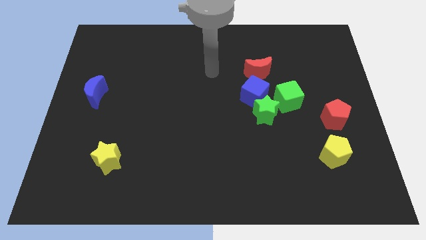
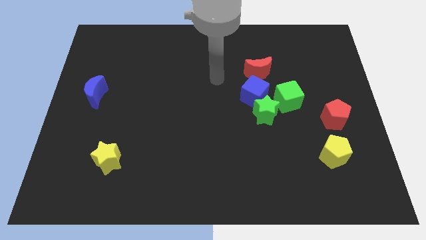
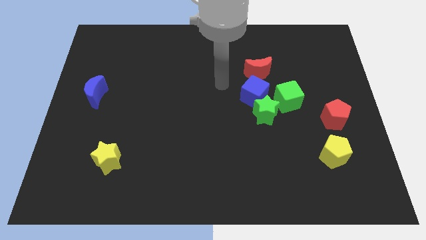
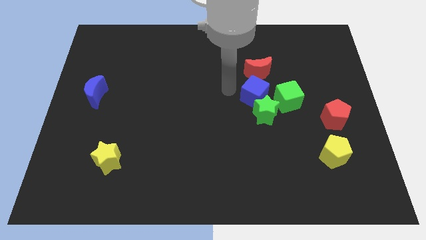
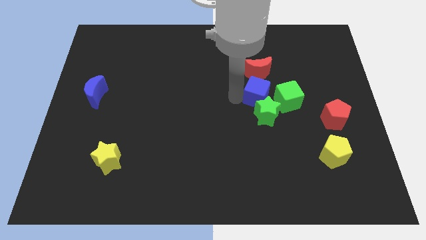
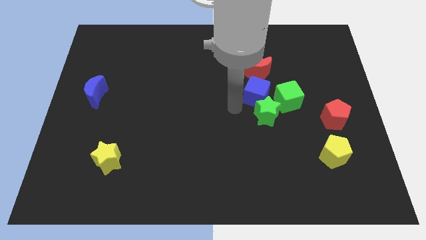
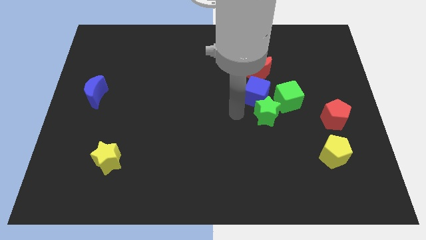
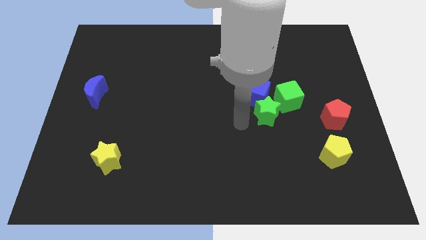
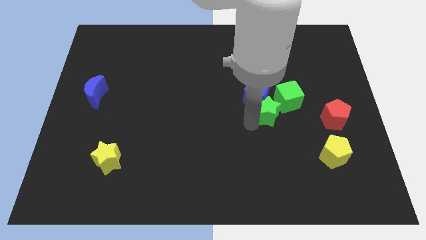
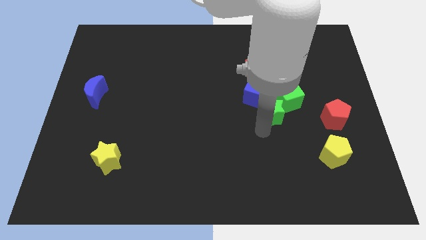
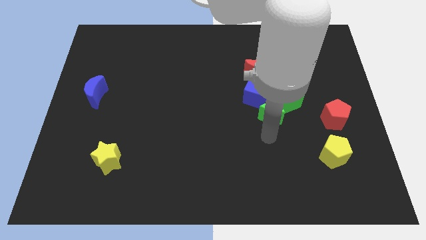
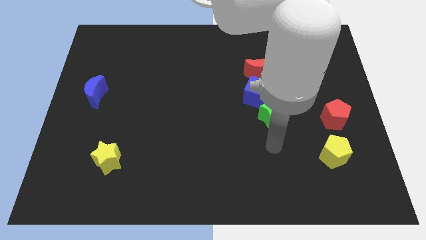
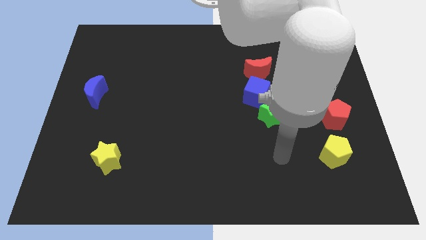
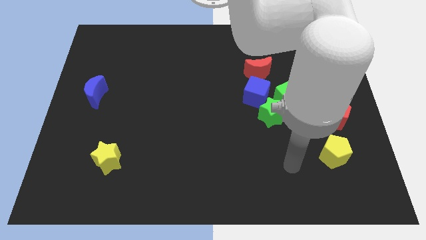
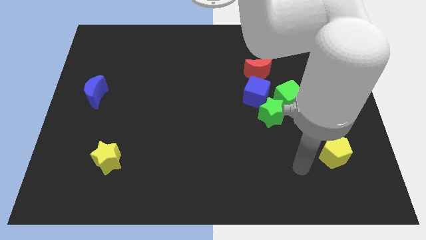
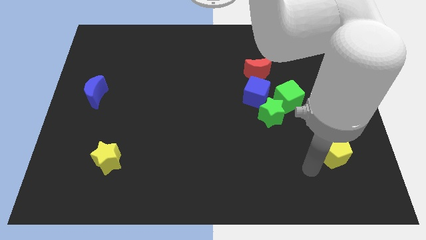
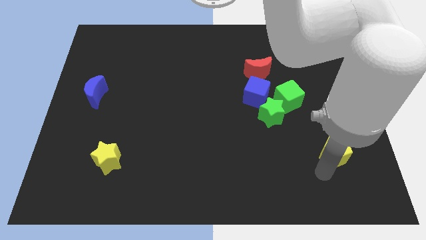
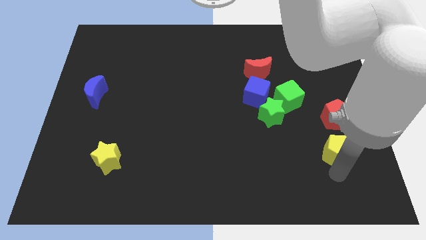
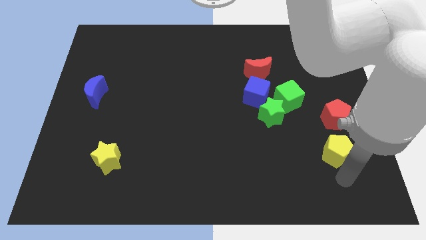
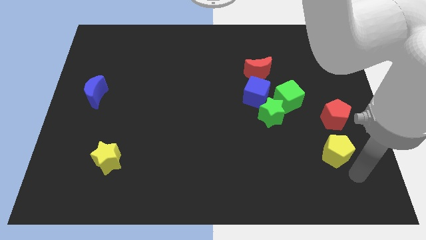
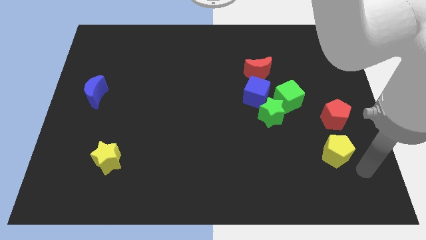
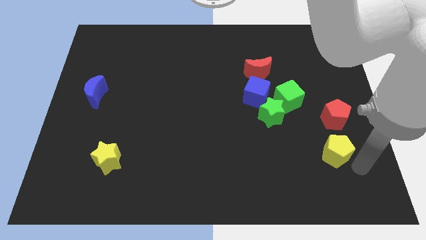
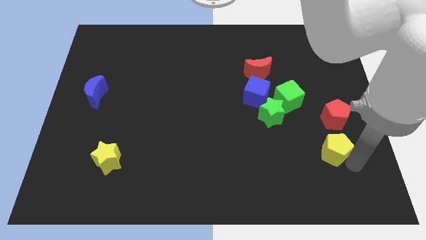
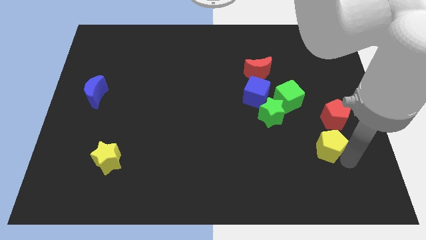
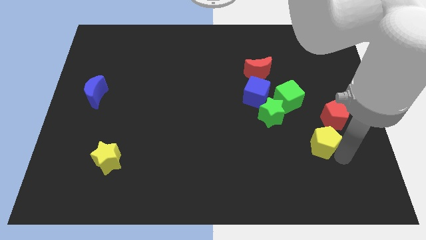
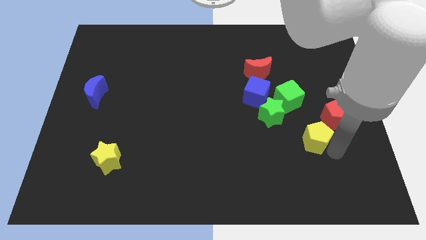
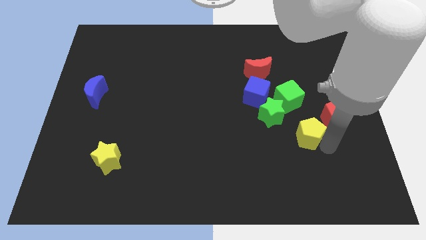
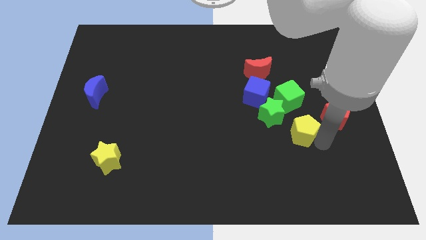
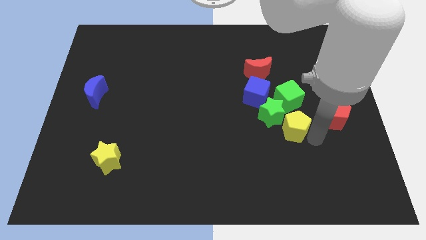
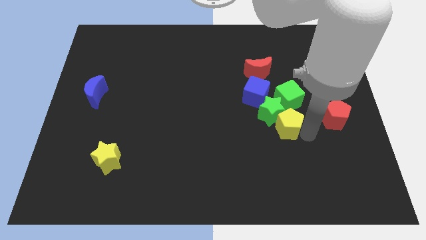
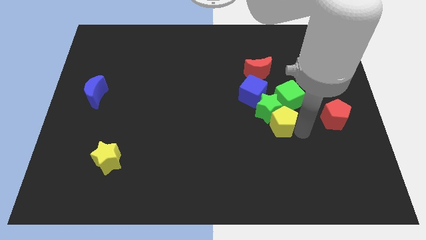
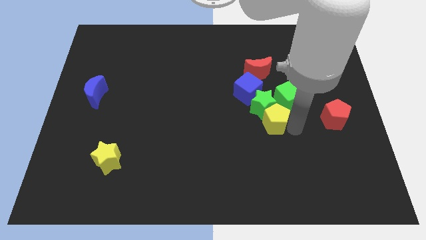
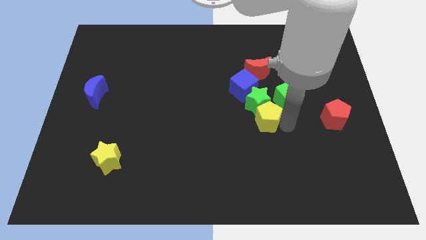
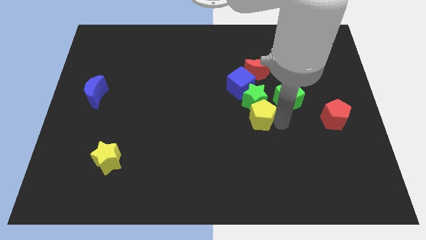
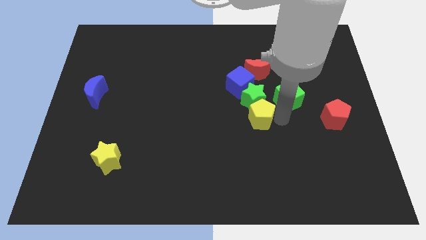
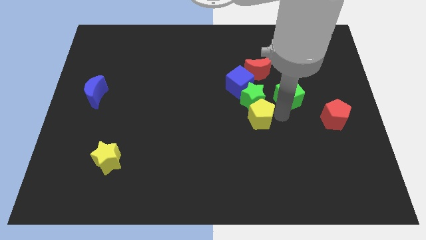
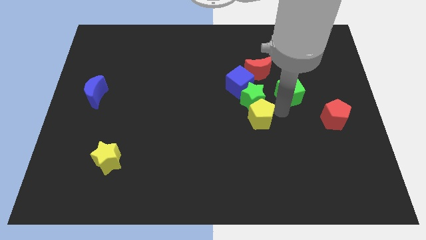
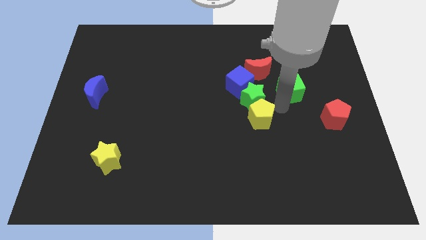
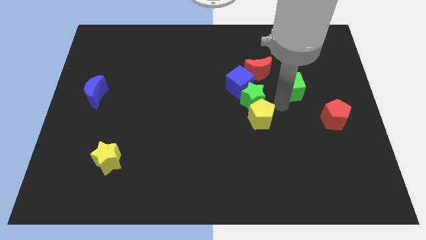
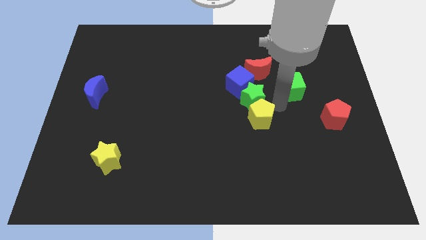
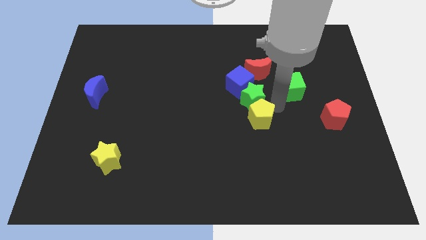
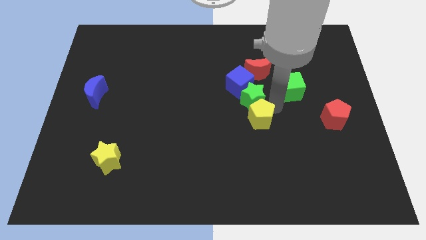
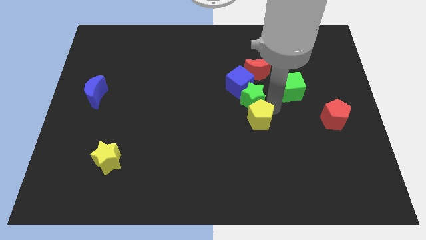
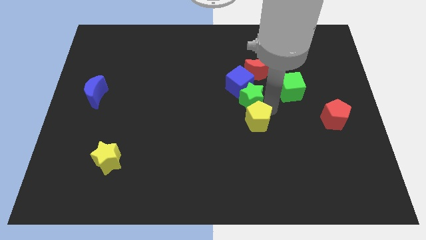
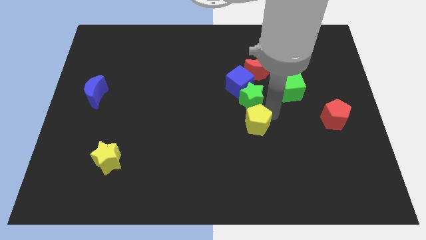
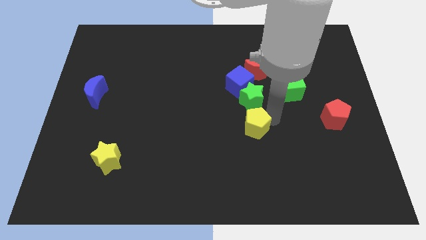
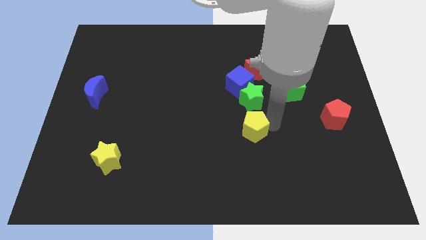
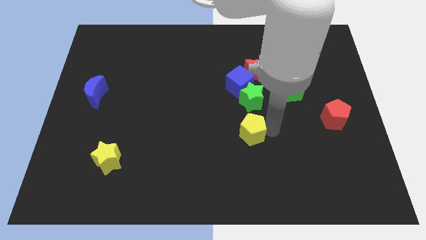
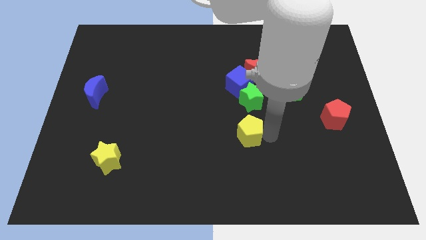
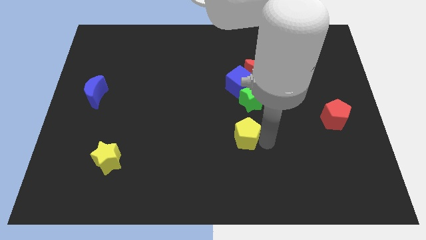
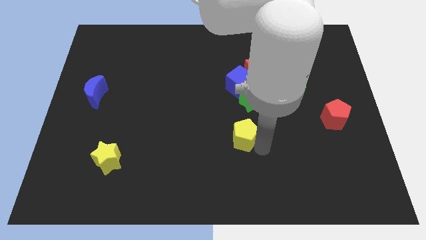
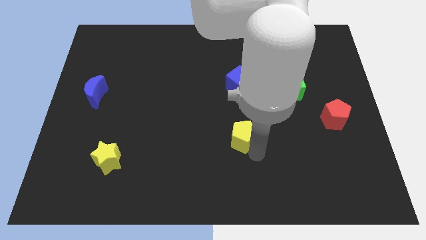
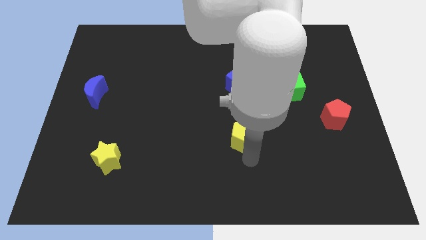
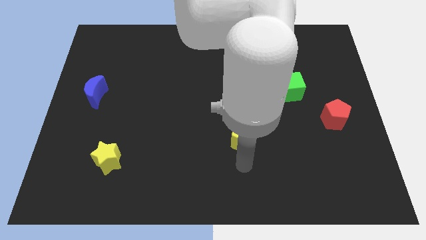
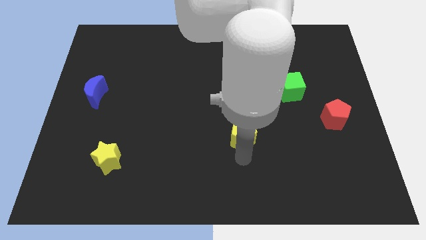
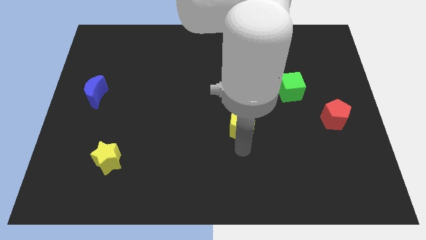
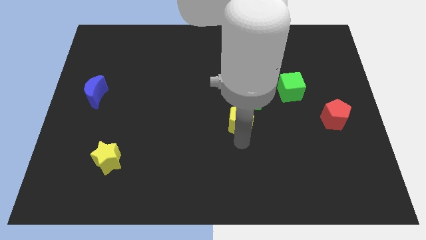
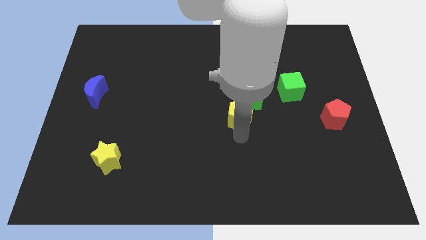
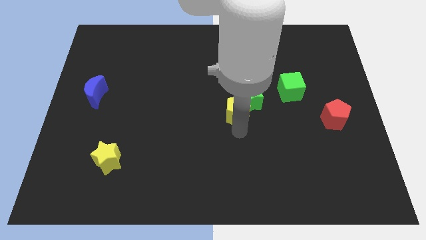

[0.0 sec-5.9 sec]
push the yellow pentagon upwards and left diagonally

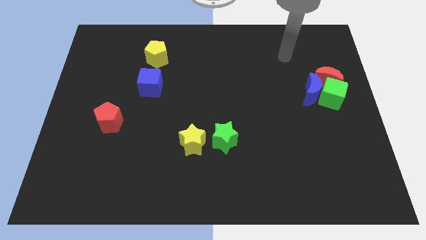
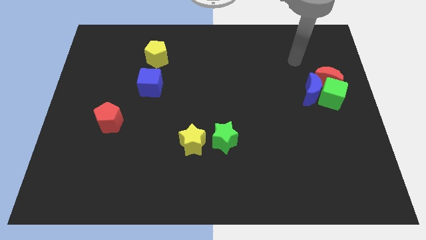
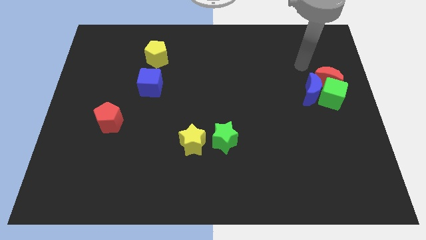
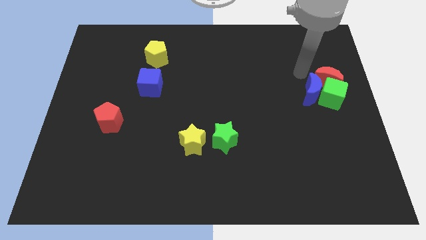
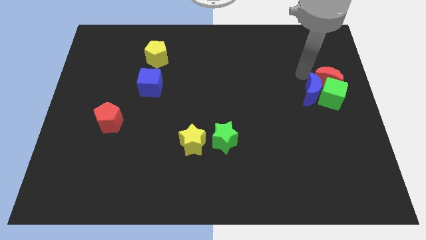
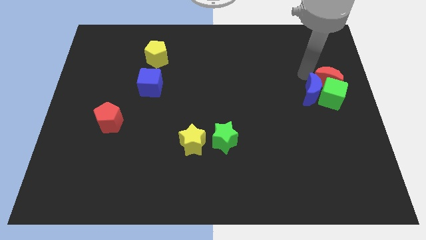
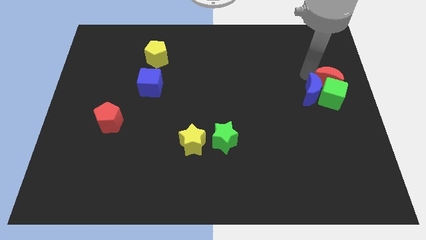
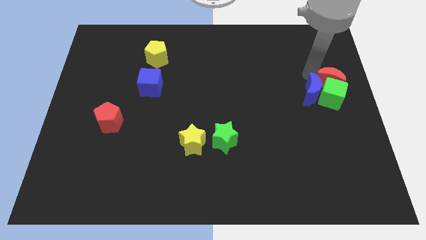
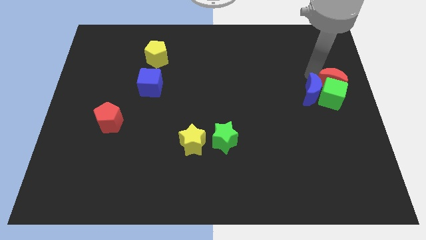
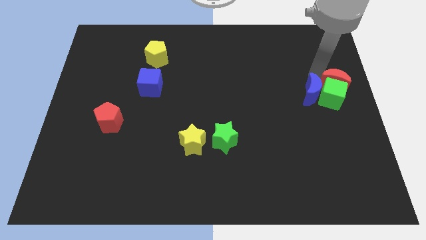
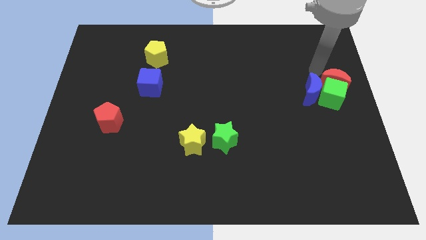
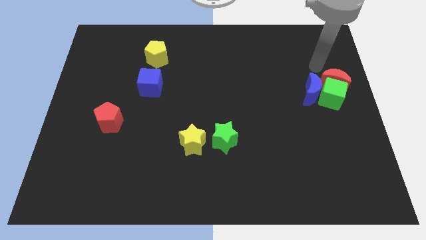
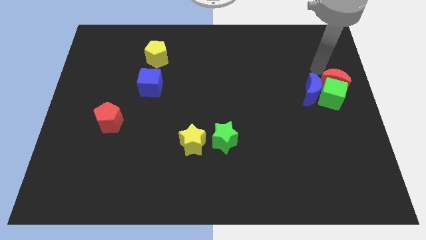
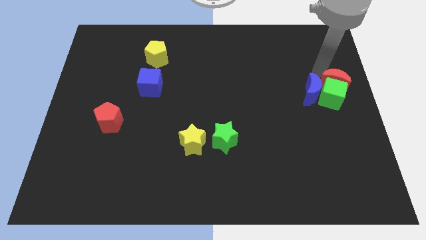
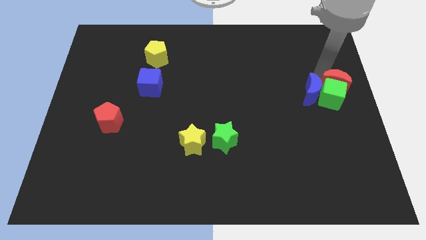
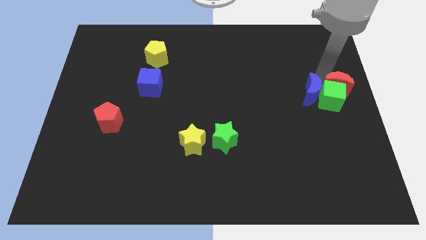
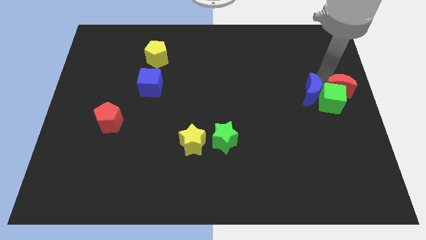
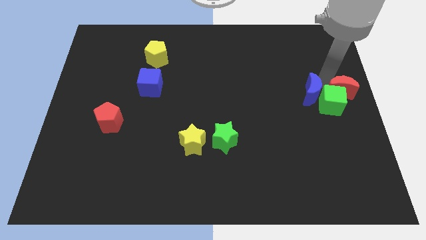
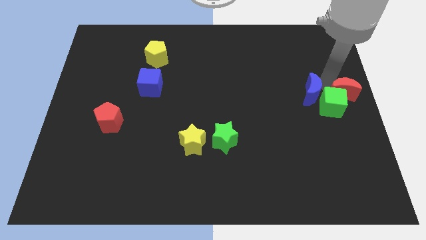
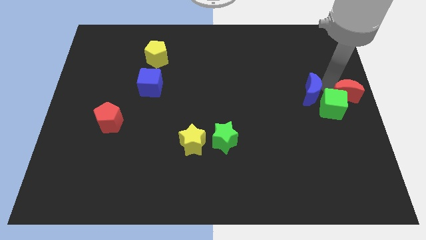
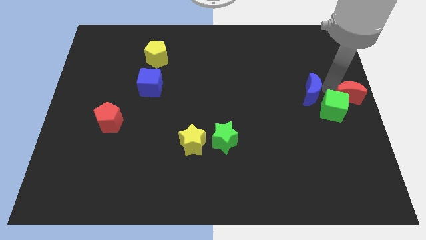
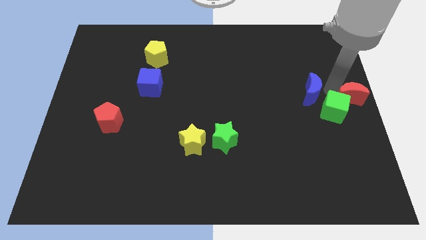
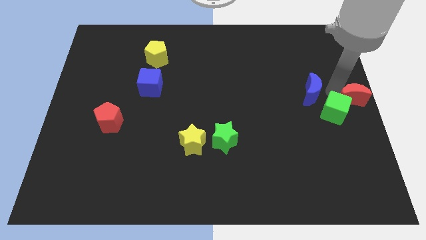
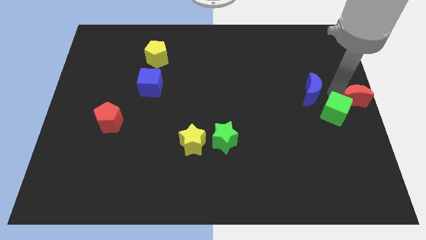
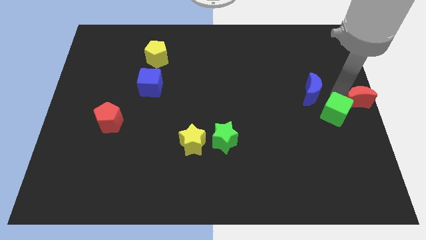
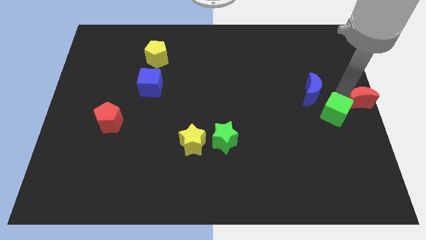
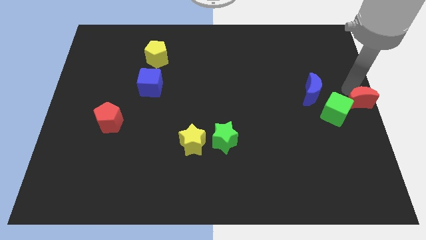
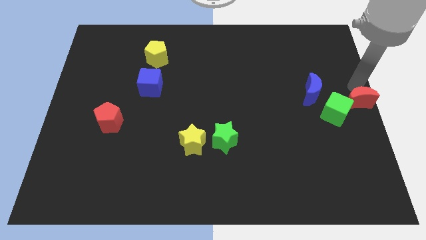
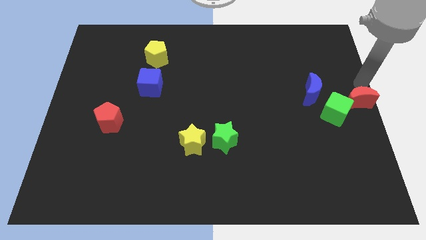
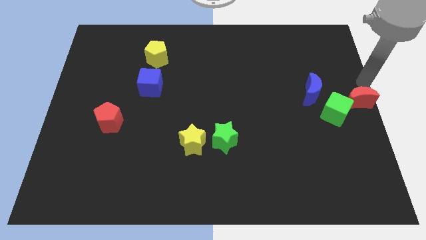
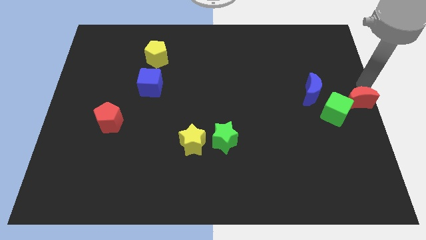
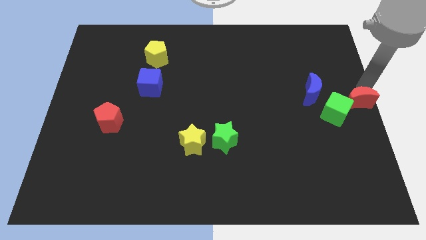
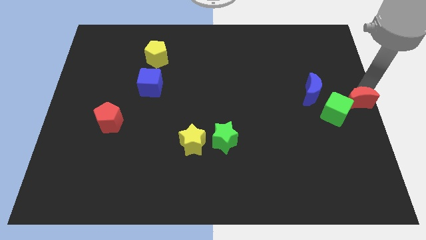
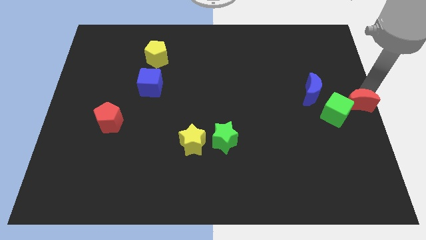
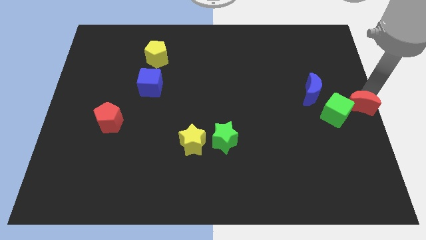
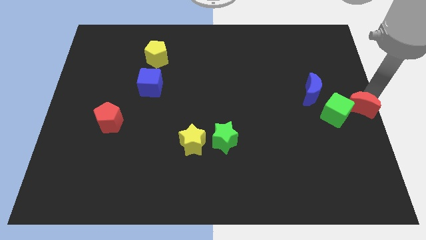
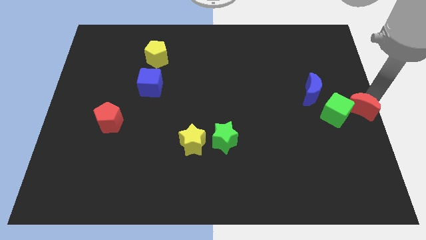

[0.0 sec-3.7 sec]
move the red moon a bit downwards
